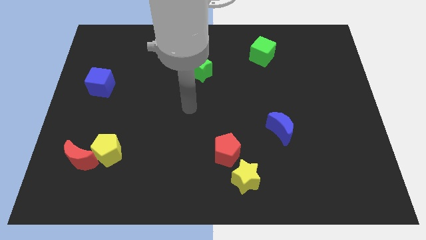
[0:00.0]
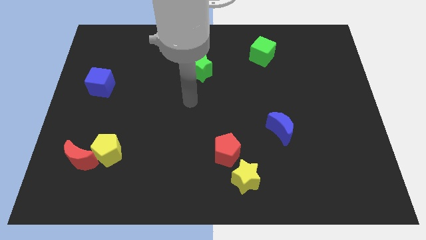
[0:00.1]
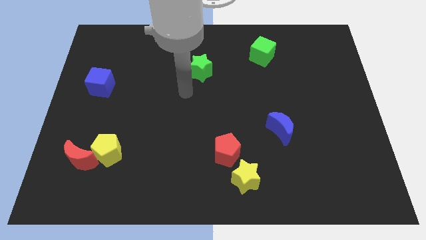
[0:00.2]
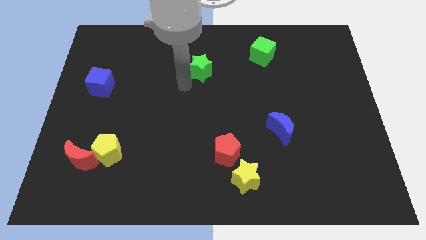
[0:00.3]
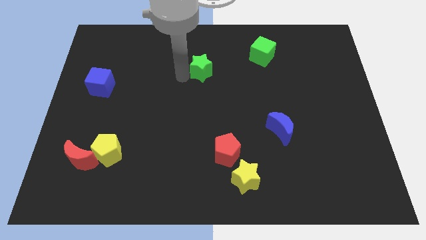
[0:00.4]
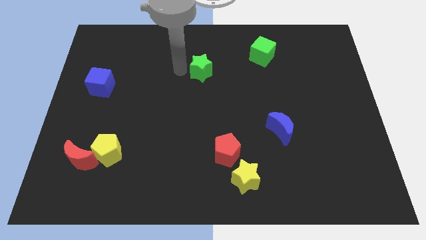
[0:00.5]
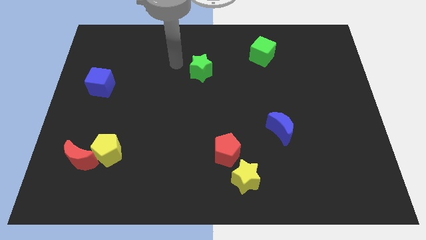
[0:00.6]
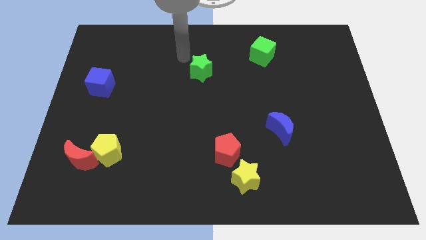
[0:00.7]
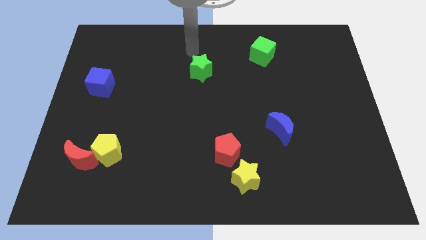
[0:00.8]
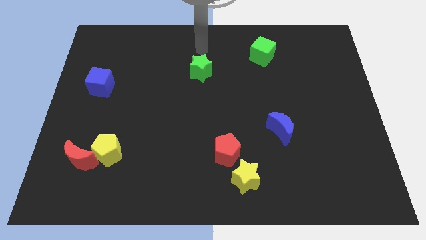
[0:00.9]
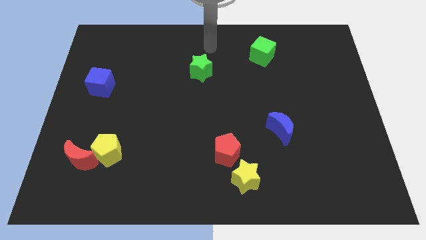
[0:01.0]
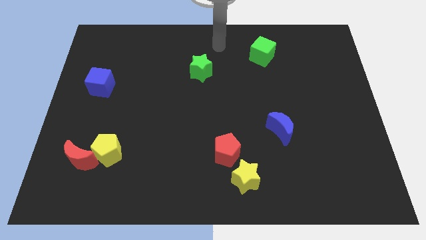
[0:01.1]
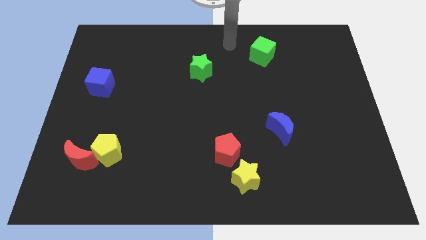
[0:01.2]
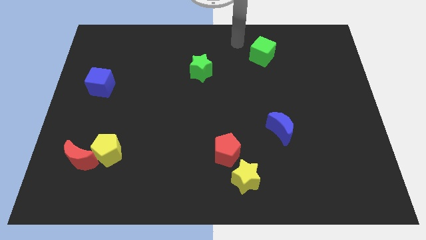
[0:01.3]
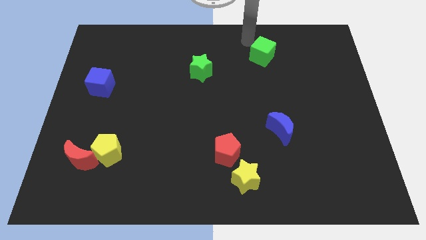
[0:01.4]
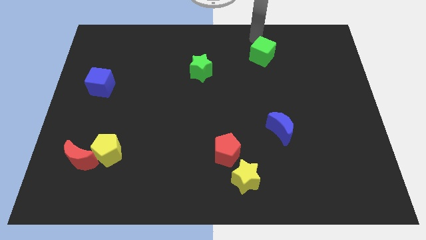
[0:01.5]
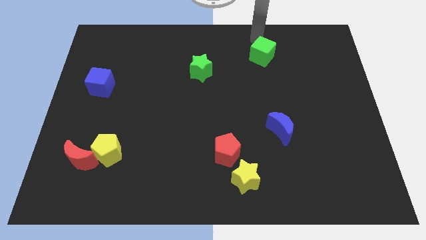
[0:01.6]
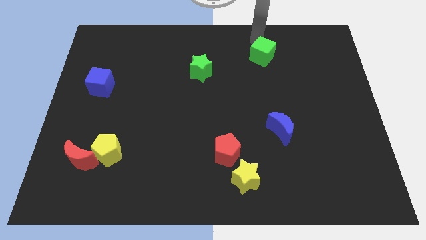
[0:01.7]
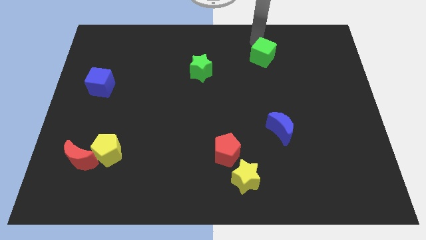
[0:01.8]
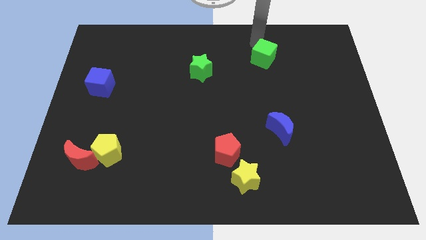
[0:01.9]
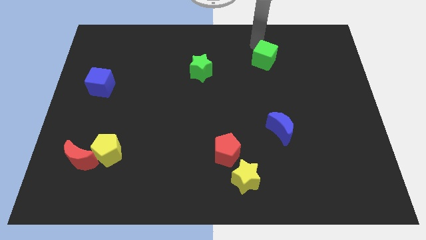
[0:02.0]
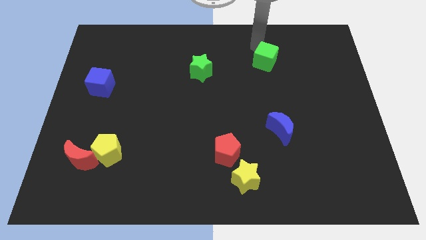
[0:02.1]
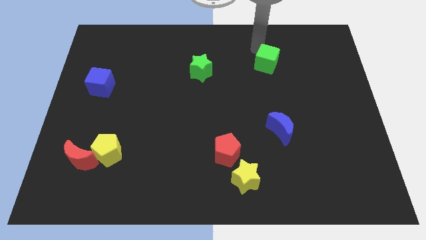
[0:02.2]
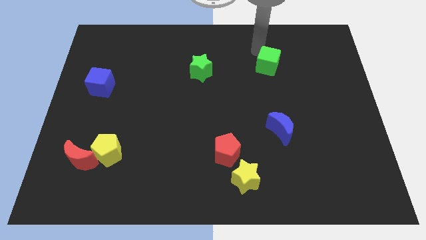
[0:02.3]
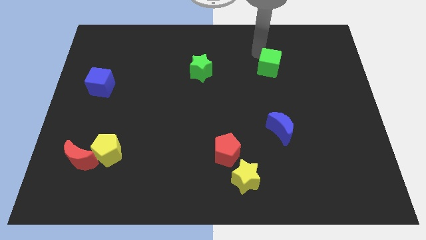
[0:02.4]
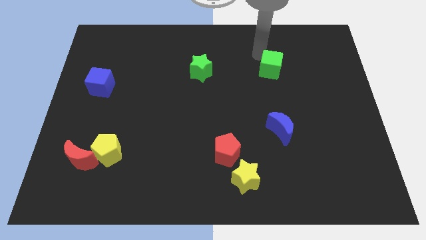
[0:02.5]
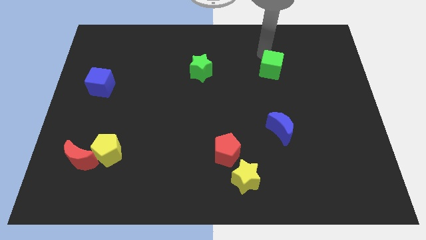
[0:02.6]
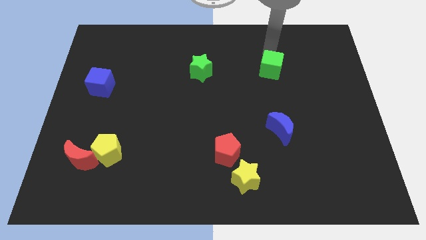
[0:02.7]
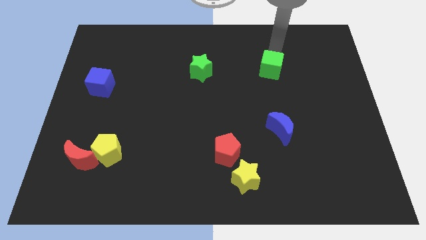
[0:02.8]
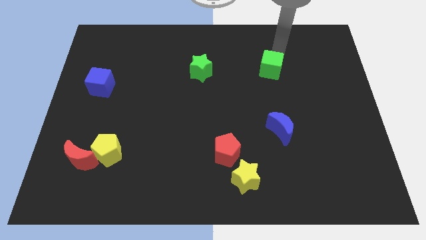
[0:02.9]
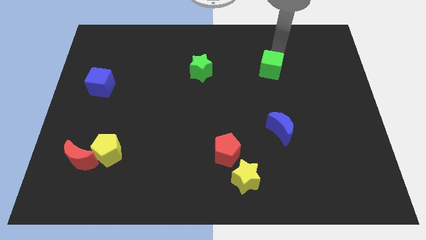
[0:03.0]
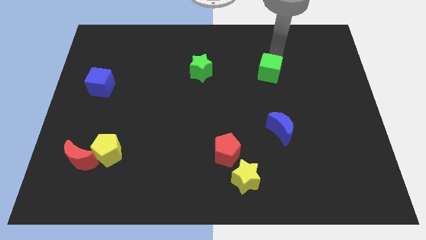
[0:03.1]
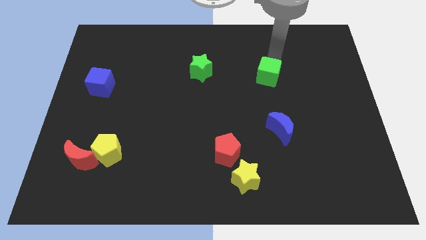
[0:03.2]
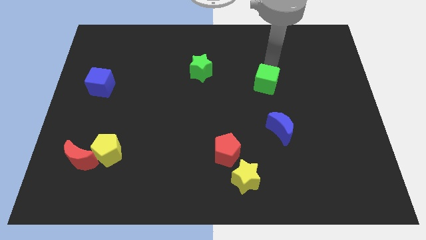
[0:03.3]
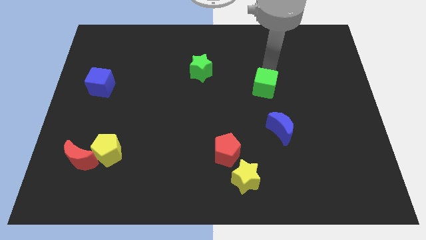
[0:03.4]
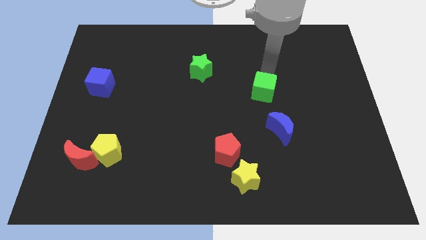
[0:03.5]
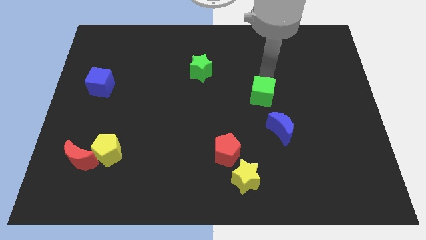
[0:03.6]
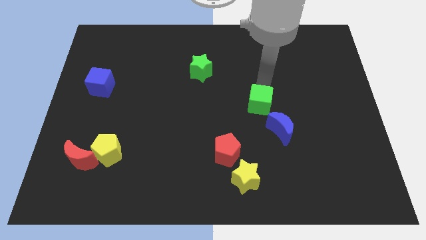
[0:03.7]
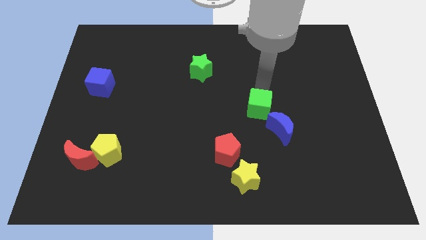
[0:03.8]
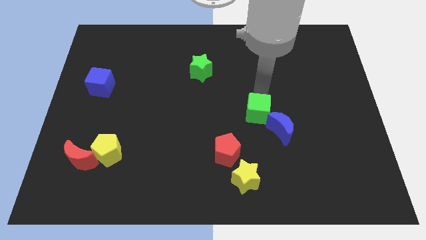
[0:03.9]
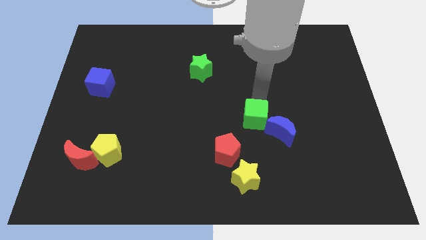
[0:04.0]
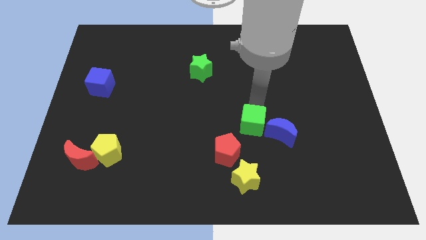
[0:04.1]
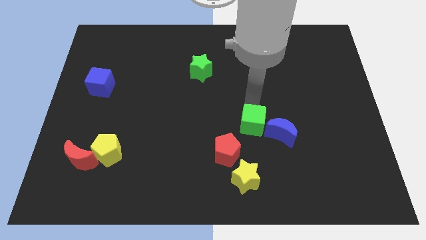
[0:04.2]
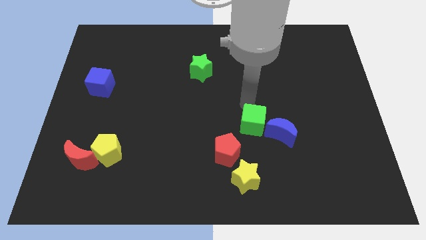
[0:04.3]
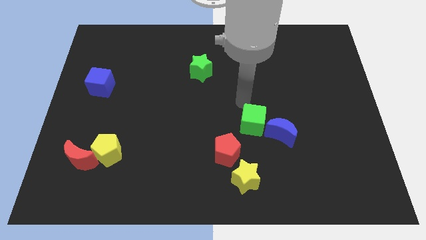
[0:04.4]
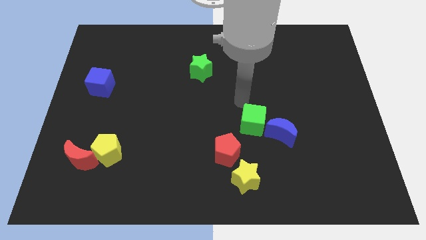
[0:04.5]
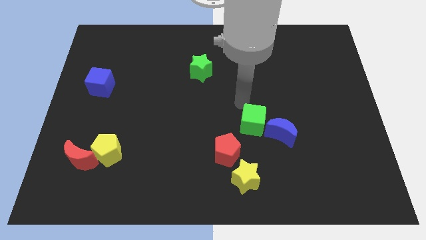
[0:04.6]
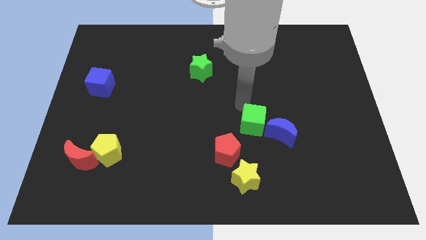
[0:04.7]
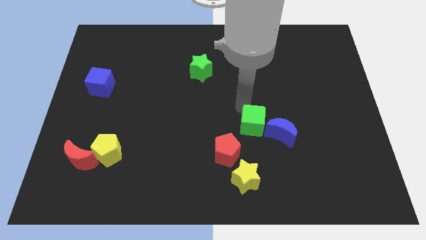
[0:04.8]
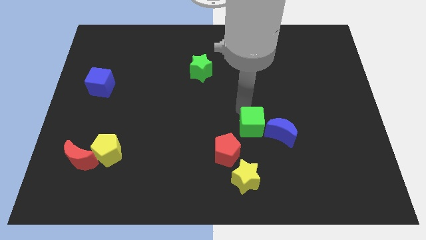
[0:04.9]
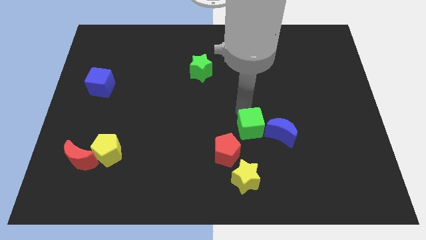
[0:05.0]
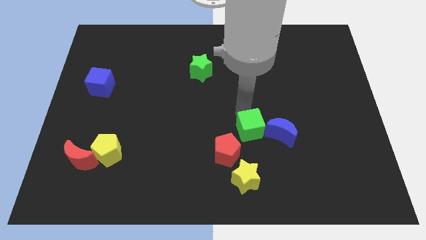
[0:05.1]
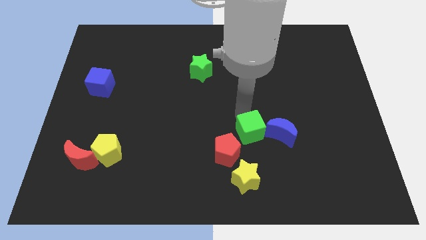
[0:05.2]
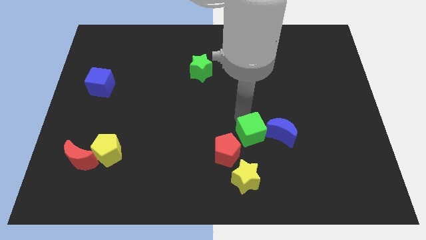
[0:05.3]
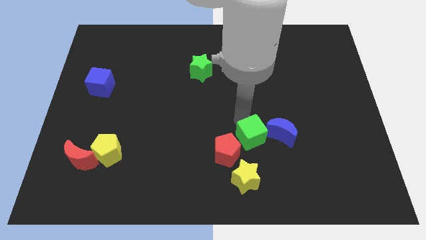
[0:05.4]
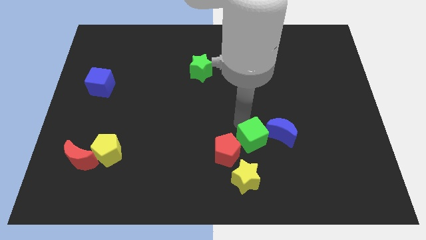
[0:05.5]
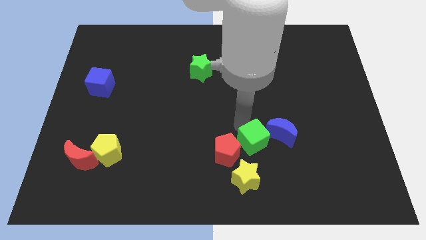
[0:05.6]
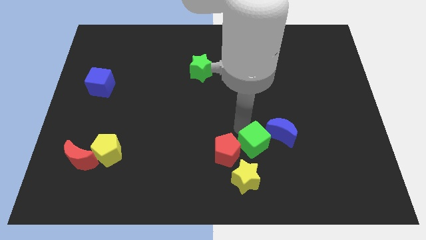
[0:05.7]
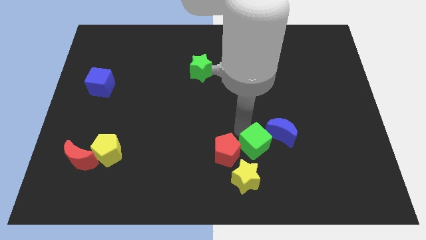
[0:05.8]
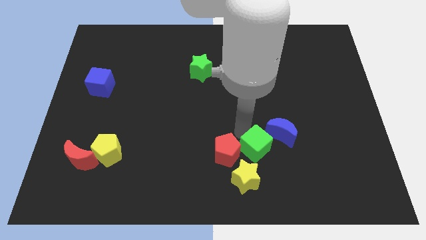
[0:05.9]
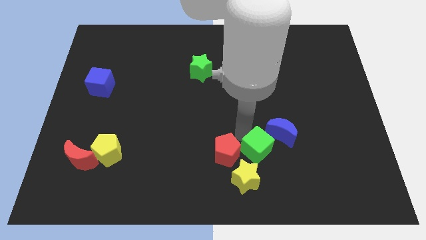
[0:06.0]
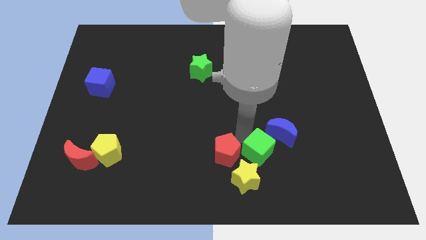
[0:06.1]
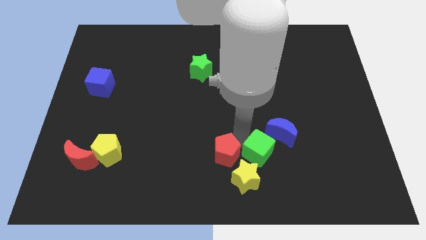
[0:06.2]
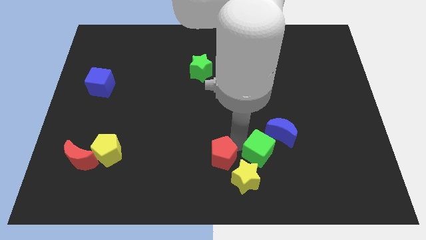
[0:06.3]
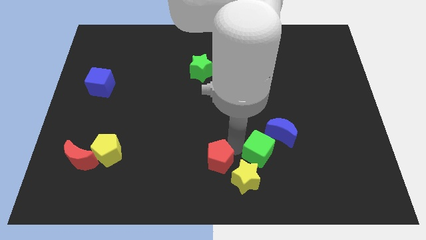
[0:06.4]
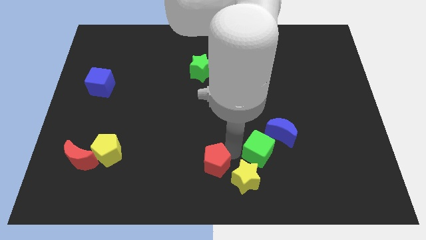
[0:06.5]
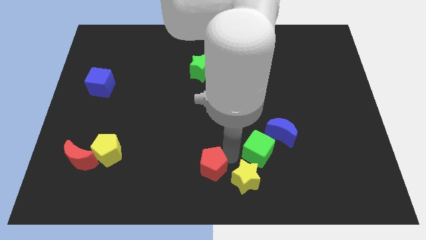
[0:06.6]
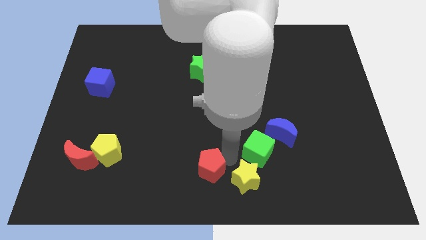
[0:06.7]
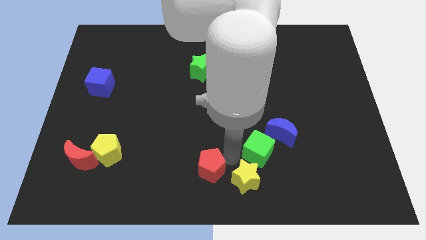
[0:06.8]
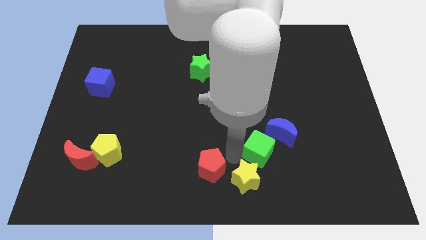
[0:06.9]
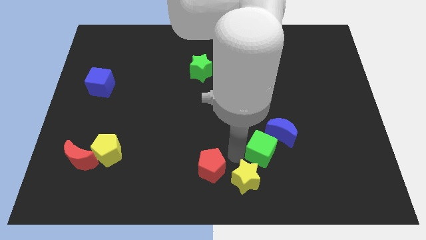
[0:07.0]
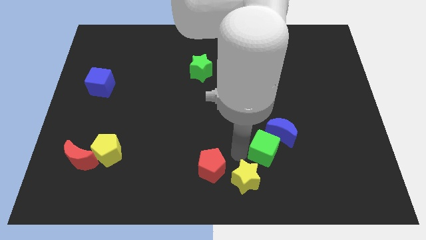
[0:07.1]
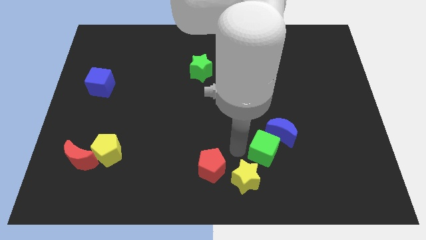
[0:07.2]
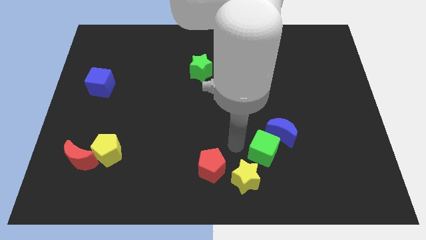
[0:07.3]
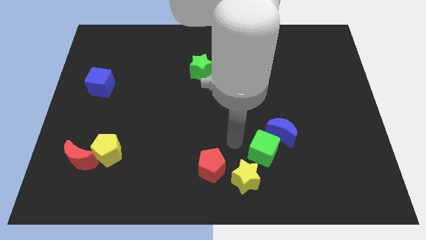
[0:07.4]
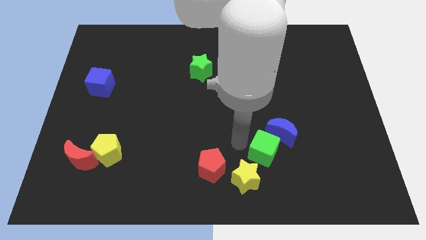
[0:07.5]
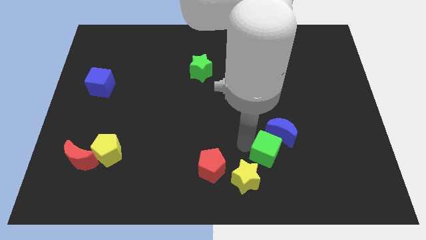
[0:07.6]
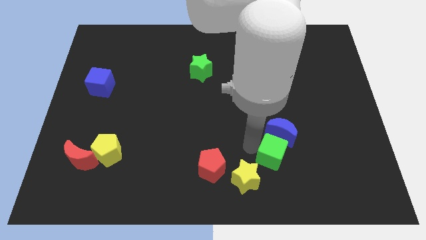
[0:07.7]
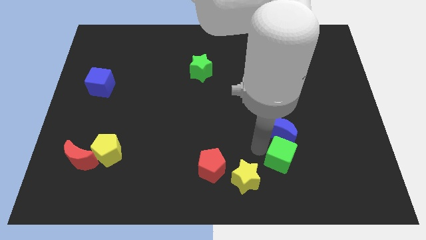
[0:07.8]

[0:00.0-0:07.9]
put the green cube just right of the yellow star
